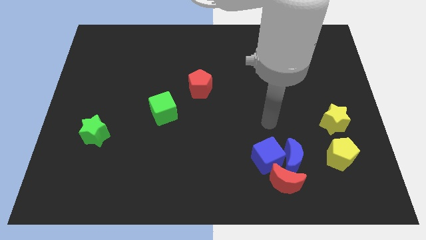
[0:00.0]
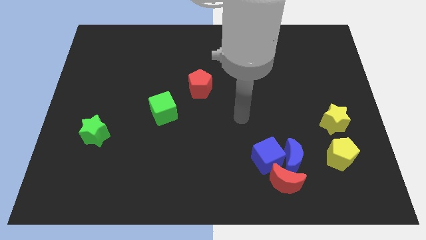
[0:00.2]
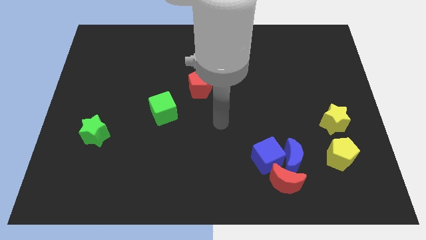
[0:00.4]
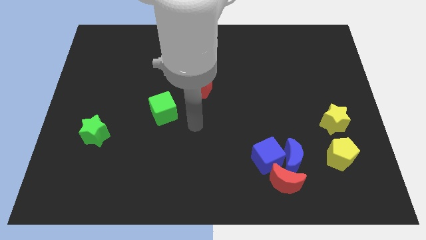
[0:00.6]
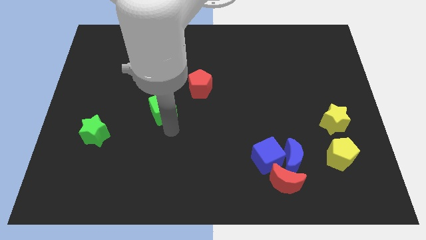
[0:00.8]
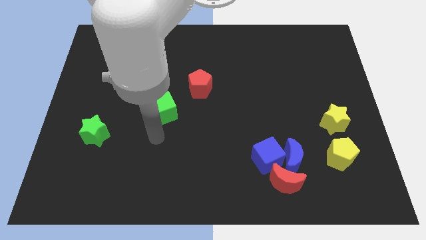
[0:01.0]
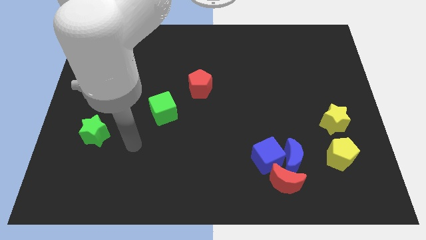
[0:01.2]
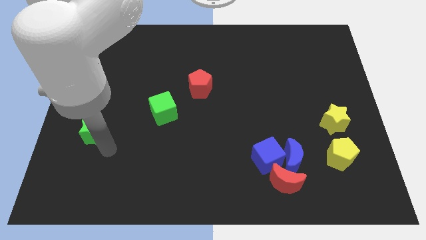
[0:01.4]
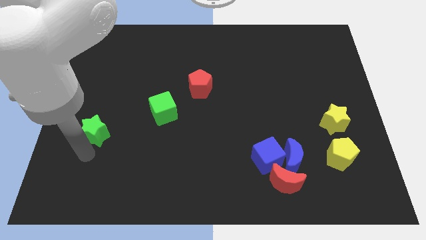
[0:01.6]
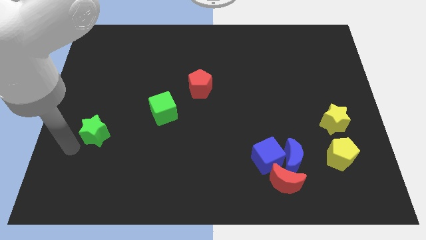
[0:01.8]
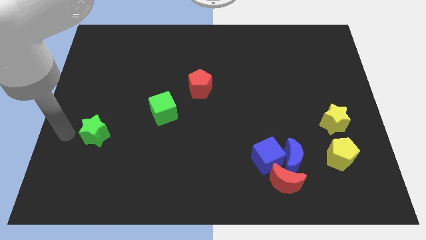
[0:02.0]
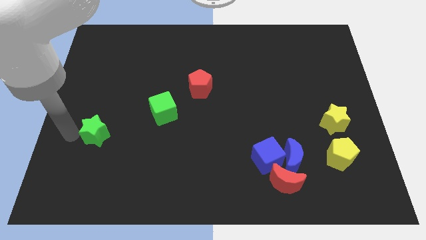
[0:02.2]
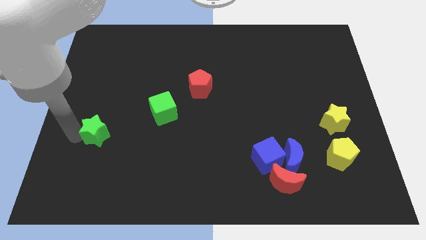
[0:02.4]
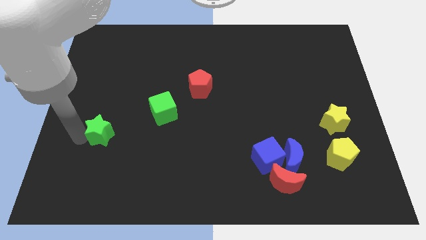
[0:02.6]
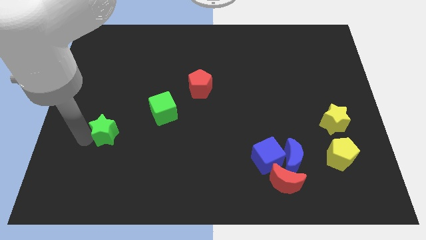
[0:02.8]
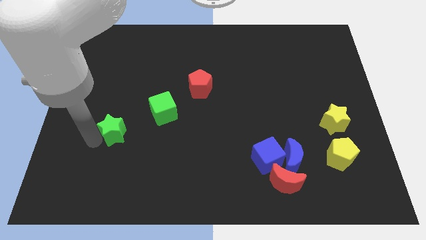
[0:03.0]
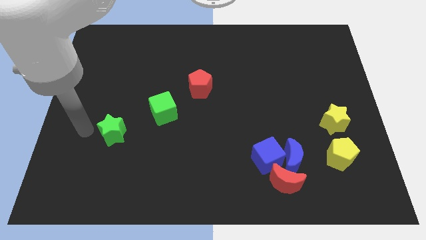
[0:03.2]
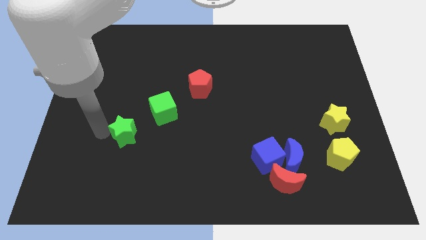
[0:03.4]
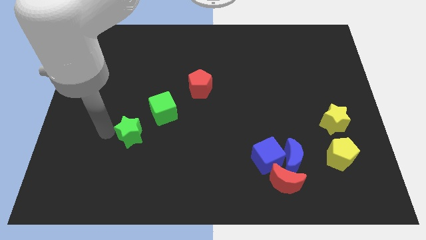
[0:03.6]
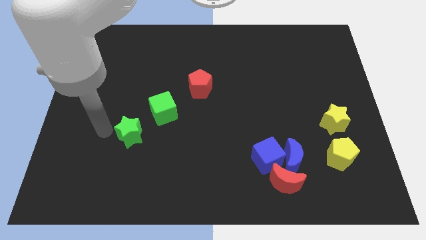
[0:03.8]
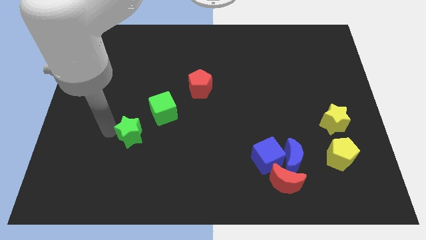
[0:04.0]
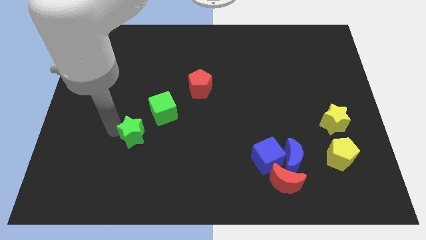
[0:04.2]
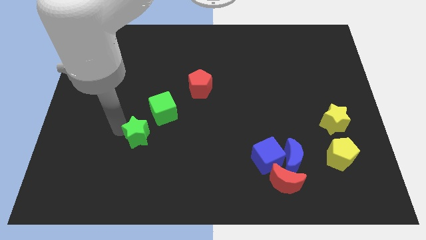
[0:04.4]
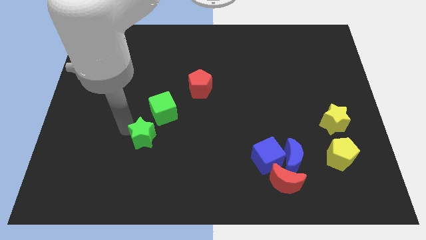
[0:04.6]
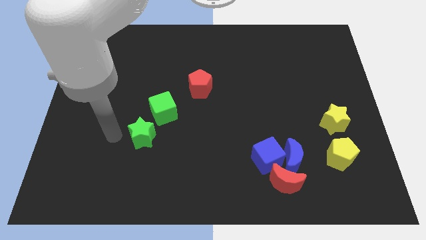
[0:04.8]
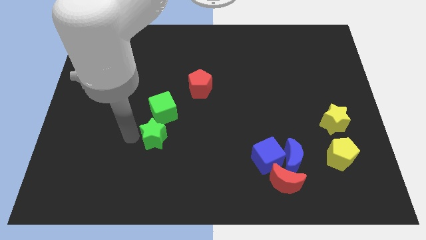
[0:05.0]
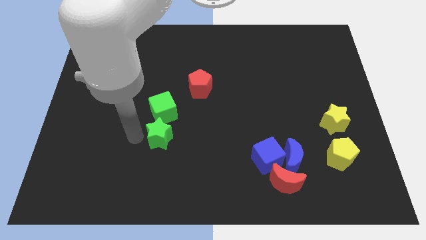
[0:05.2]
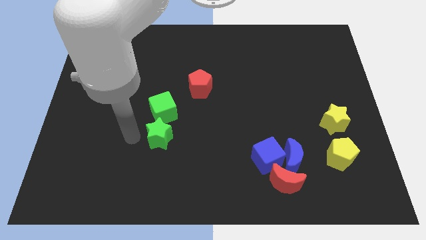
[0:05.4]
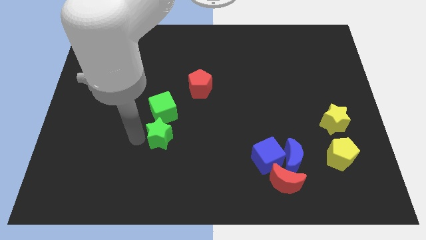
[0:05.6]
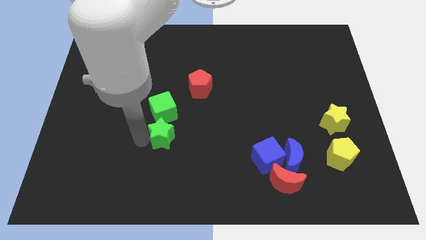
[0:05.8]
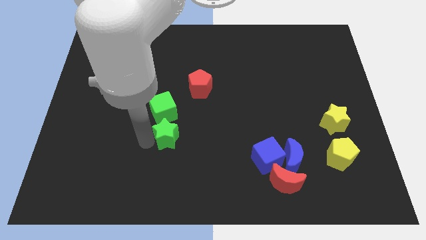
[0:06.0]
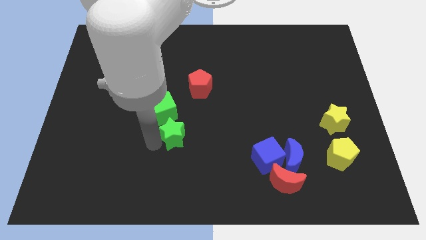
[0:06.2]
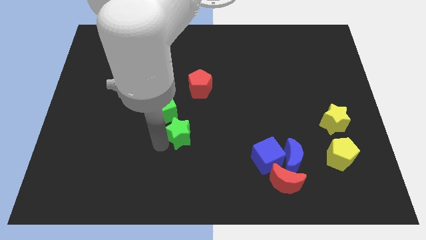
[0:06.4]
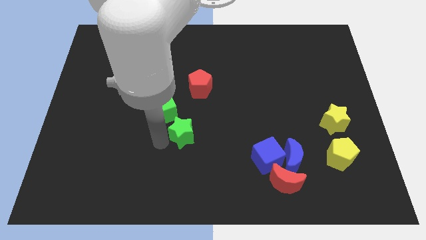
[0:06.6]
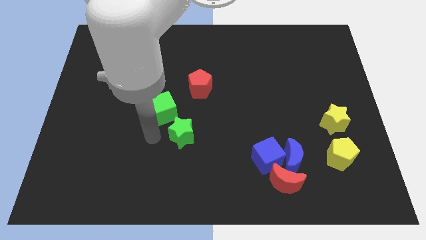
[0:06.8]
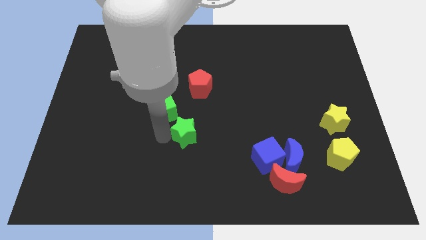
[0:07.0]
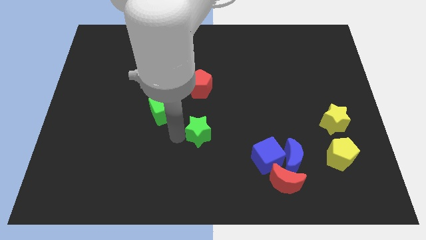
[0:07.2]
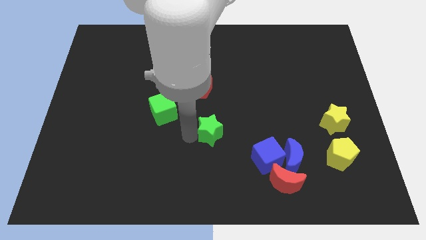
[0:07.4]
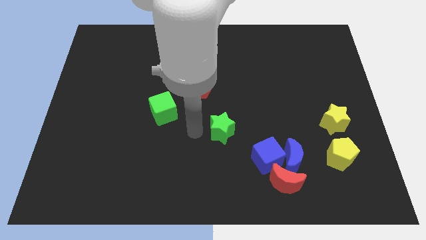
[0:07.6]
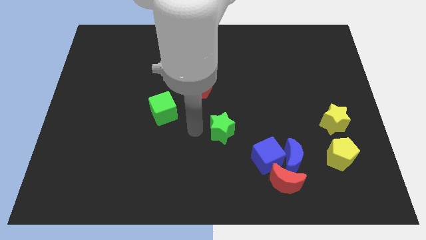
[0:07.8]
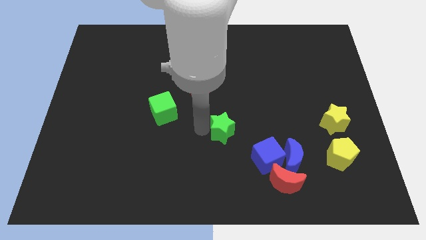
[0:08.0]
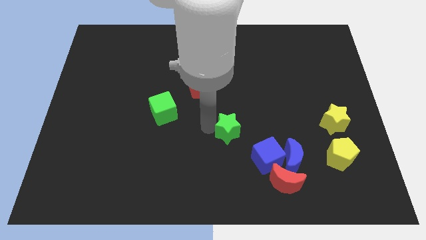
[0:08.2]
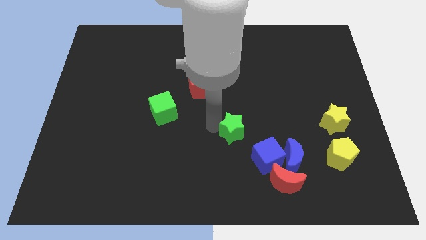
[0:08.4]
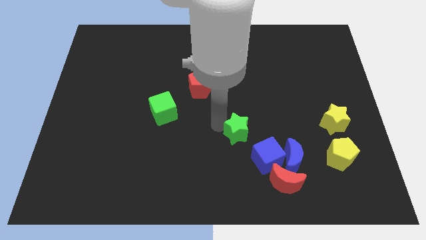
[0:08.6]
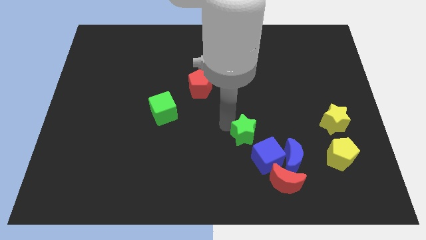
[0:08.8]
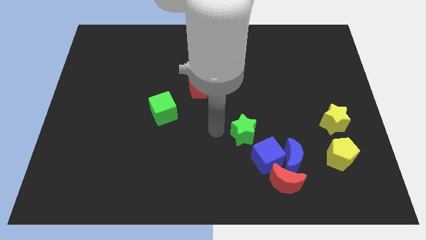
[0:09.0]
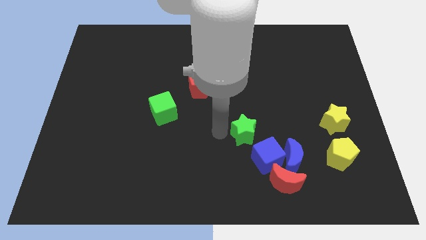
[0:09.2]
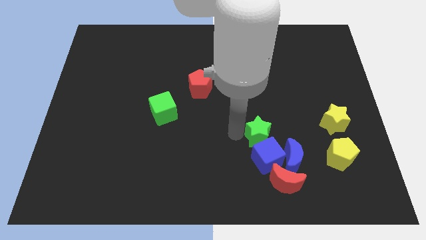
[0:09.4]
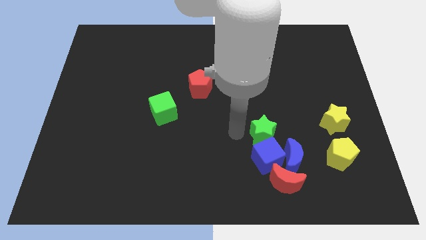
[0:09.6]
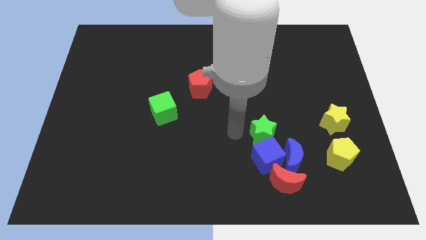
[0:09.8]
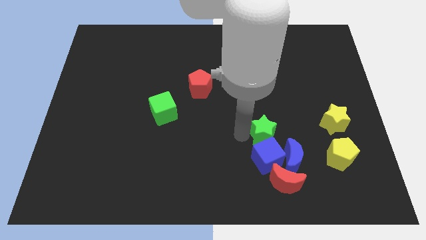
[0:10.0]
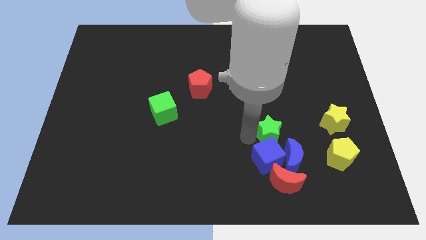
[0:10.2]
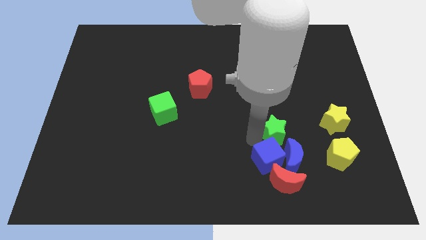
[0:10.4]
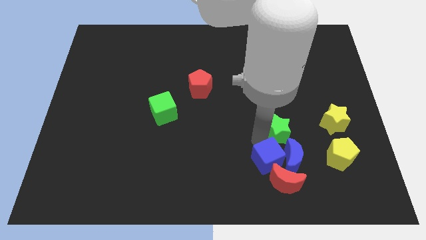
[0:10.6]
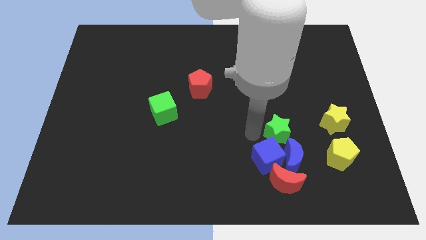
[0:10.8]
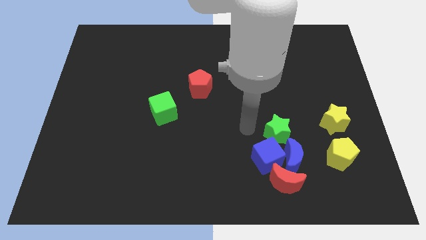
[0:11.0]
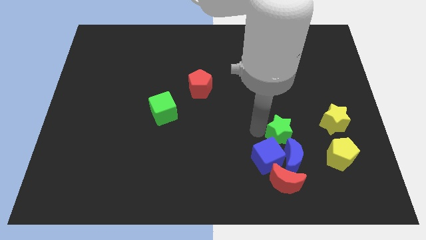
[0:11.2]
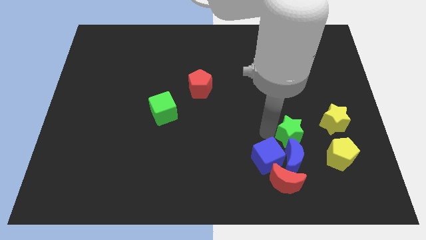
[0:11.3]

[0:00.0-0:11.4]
move the green star diagonally up and to the right of the blue moon

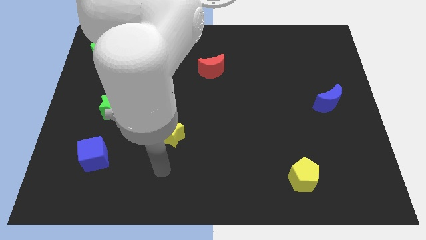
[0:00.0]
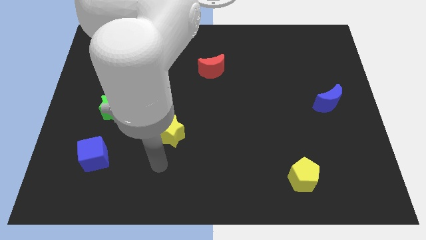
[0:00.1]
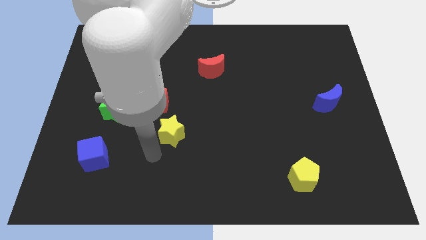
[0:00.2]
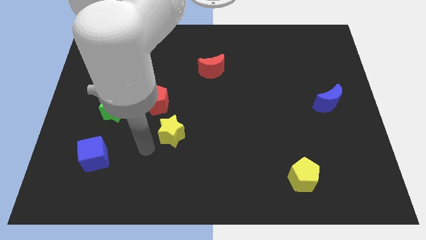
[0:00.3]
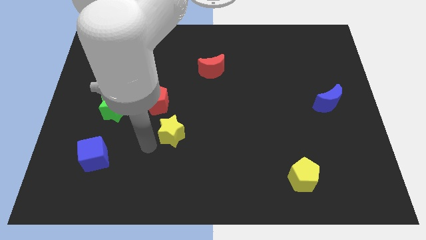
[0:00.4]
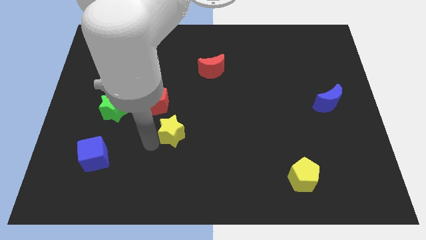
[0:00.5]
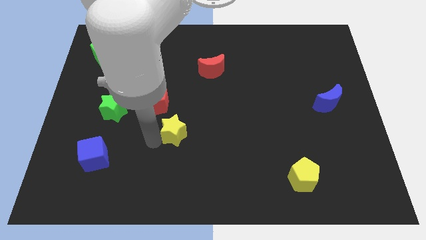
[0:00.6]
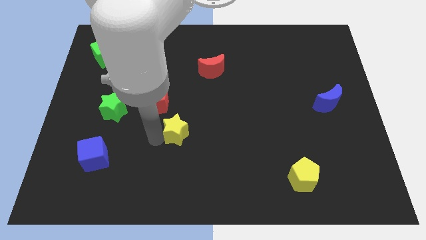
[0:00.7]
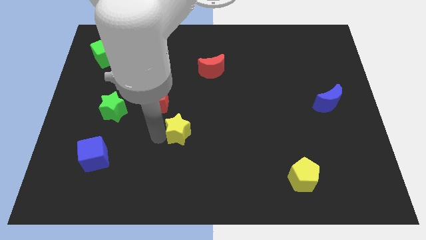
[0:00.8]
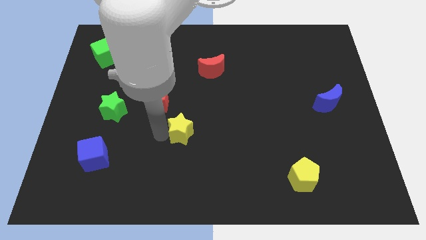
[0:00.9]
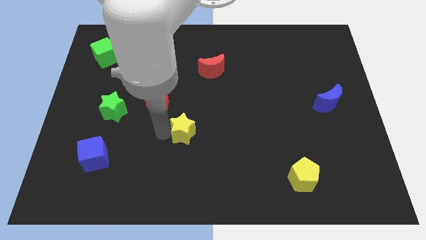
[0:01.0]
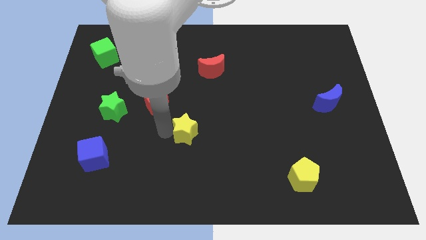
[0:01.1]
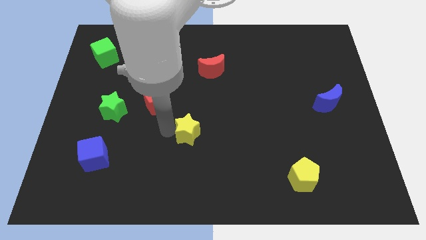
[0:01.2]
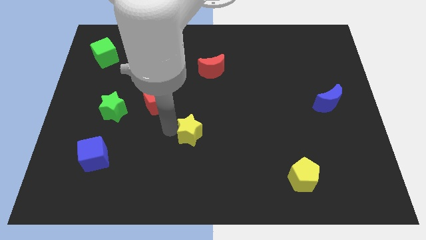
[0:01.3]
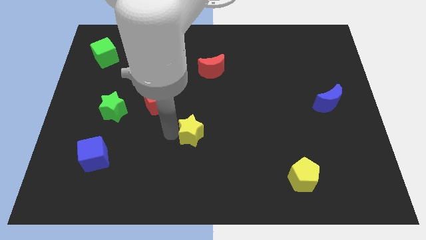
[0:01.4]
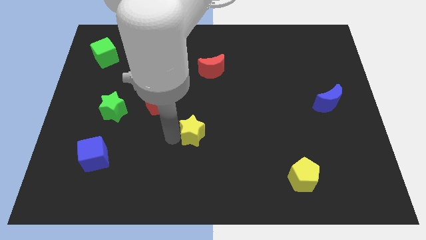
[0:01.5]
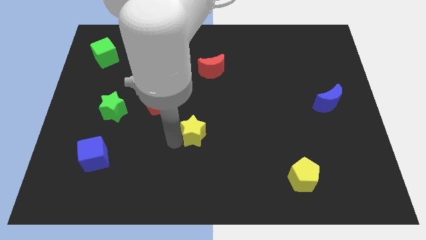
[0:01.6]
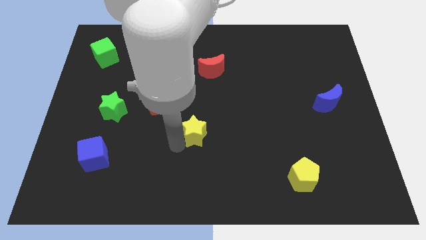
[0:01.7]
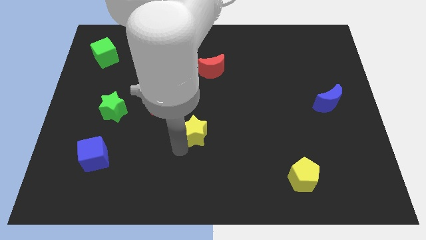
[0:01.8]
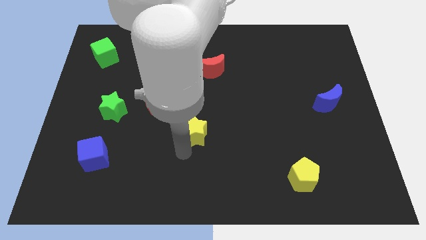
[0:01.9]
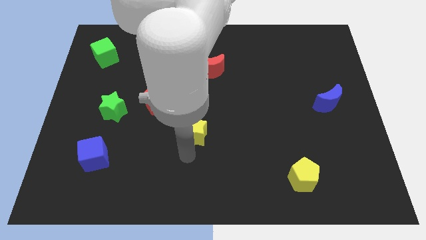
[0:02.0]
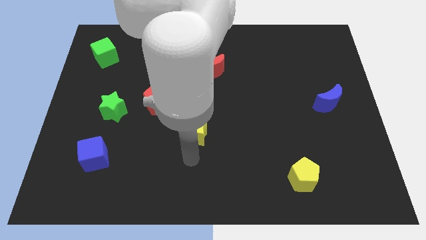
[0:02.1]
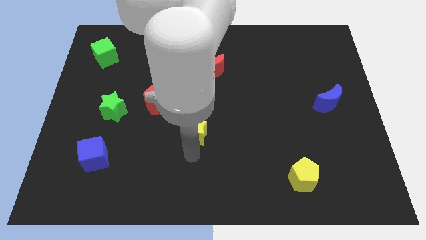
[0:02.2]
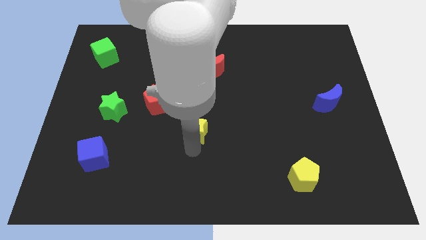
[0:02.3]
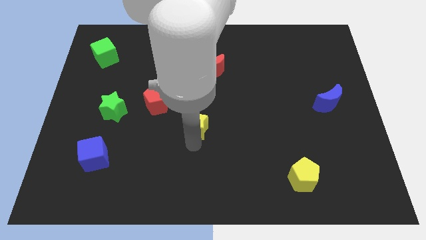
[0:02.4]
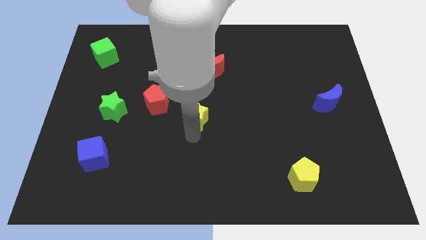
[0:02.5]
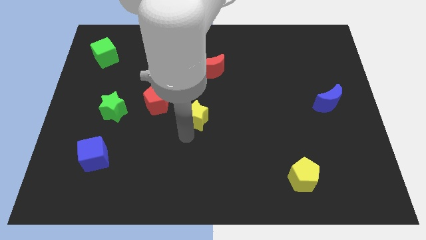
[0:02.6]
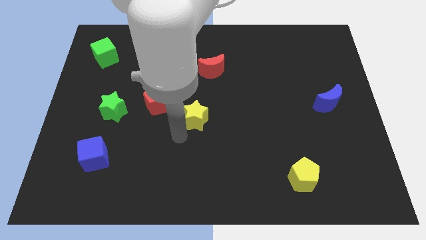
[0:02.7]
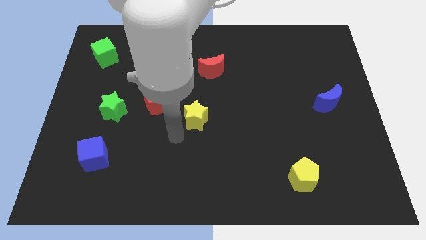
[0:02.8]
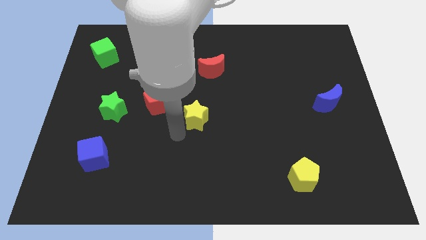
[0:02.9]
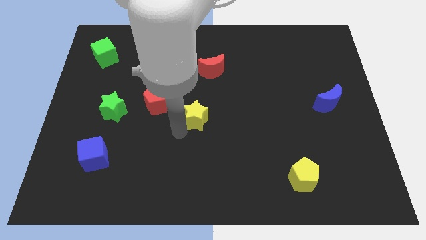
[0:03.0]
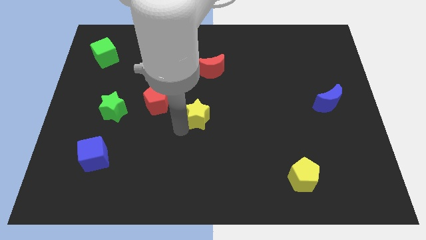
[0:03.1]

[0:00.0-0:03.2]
slide the yellow star to the bottom of the red moon
